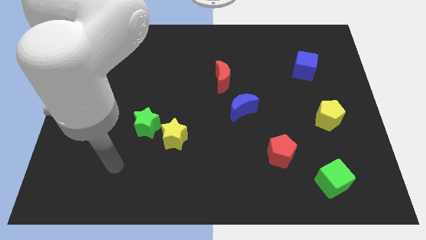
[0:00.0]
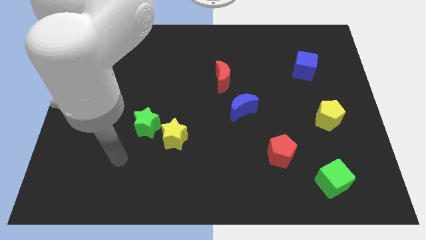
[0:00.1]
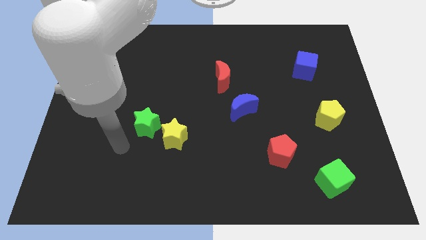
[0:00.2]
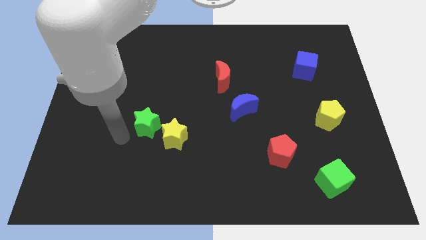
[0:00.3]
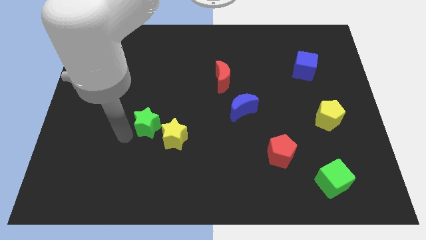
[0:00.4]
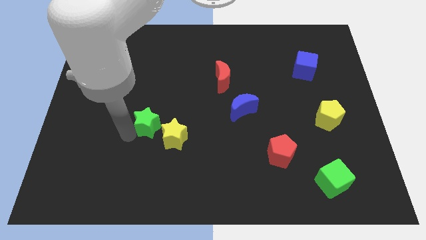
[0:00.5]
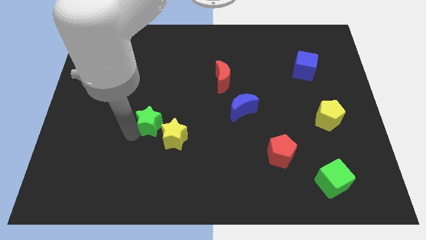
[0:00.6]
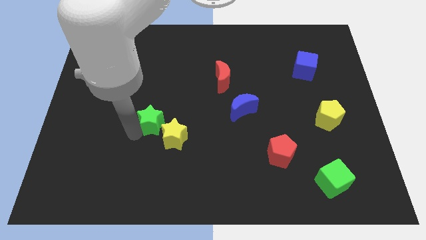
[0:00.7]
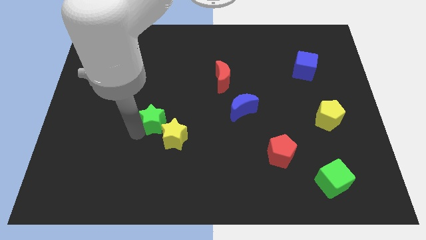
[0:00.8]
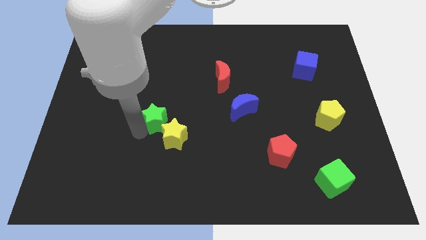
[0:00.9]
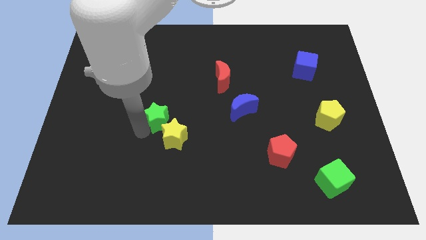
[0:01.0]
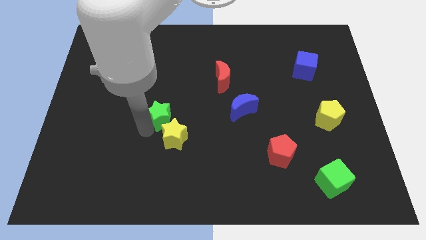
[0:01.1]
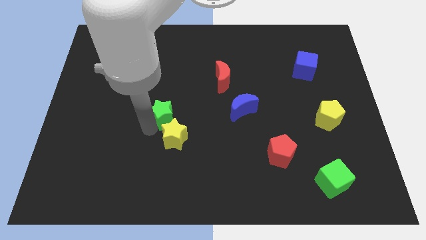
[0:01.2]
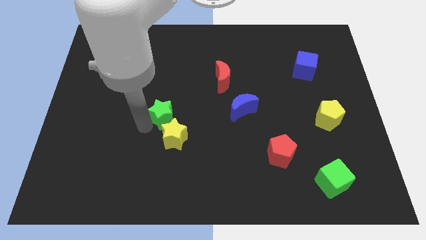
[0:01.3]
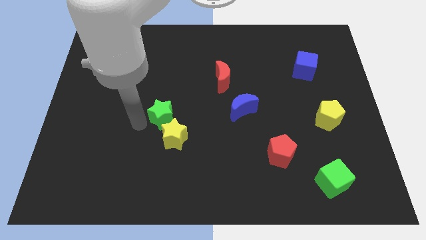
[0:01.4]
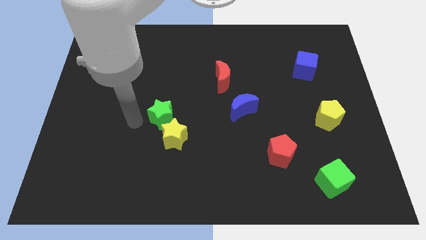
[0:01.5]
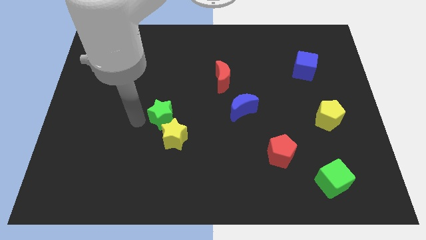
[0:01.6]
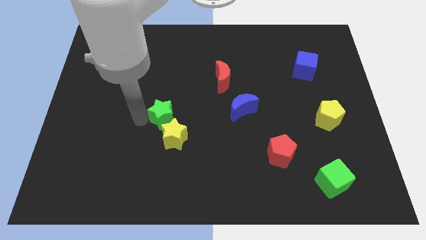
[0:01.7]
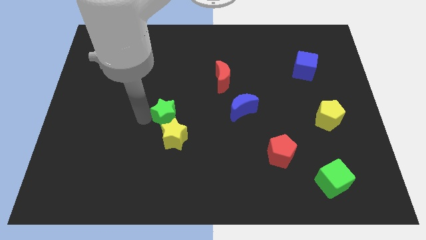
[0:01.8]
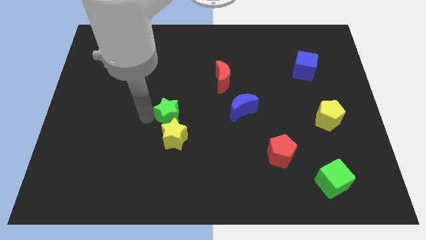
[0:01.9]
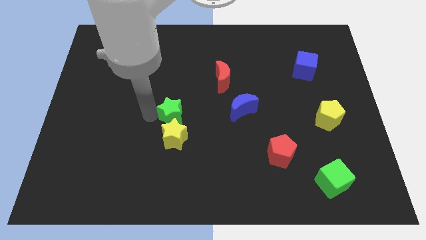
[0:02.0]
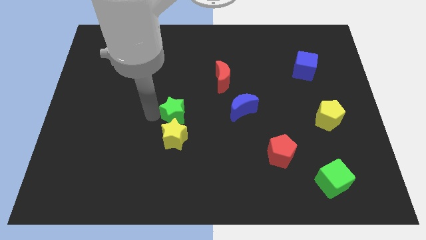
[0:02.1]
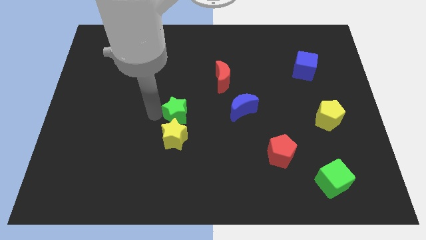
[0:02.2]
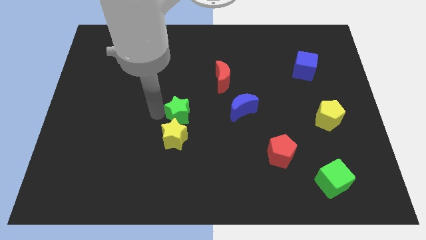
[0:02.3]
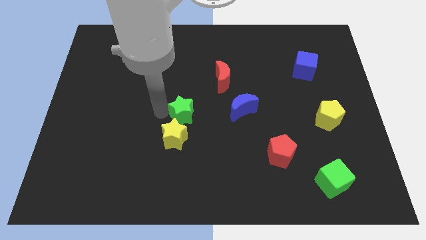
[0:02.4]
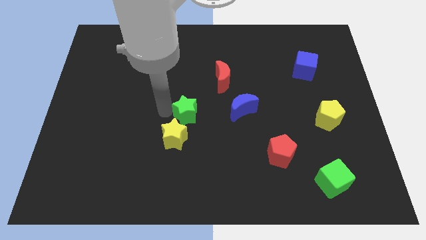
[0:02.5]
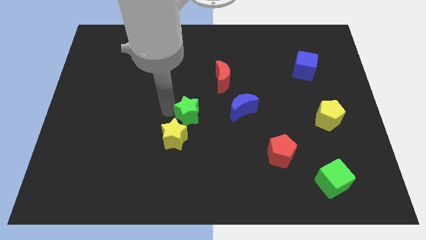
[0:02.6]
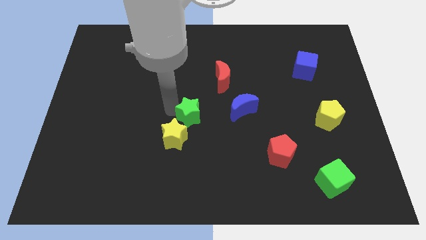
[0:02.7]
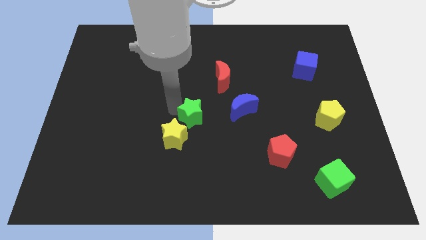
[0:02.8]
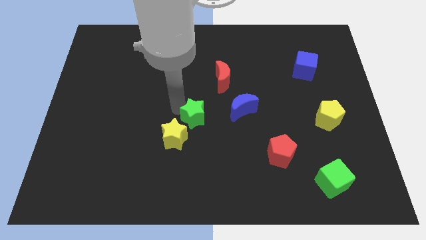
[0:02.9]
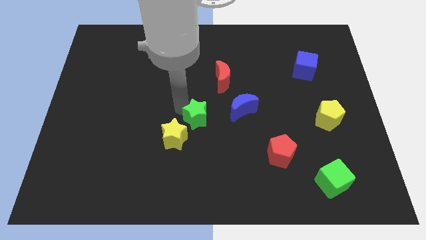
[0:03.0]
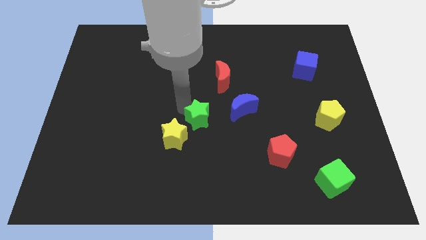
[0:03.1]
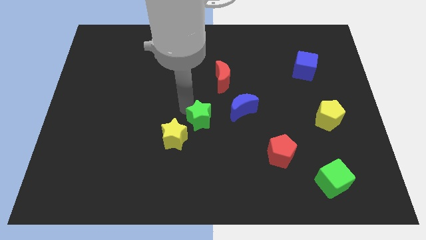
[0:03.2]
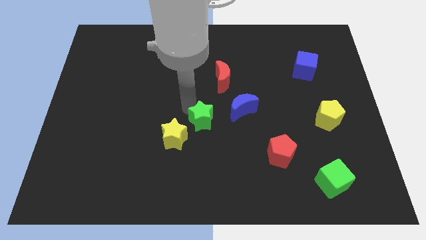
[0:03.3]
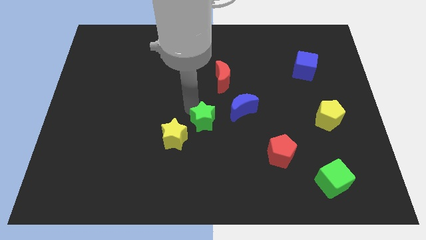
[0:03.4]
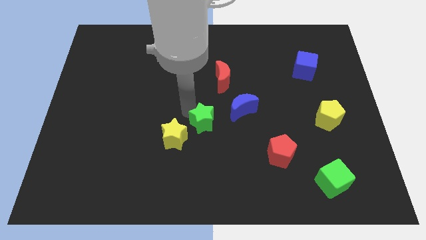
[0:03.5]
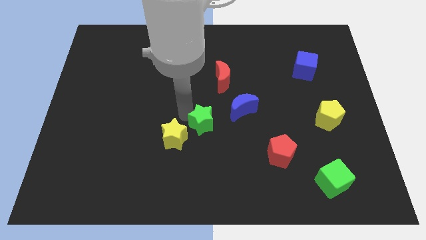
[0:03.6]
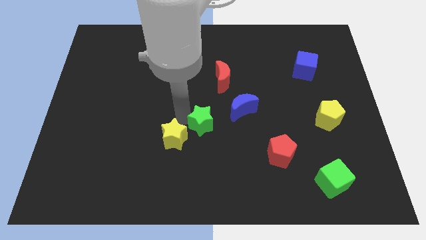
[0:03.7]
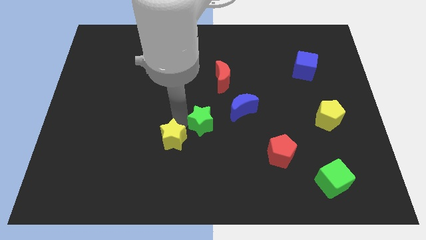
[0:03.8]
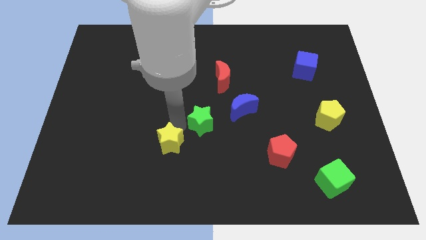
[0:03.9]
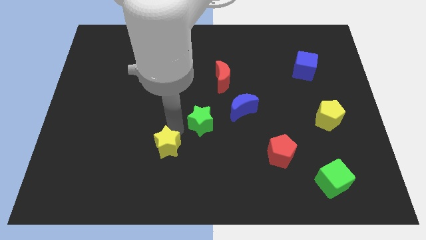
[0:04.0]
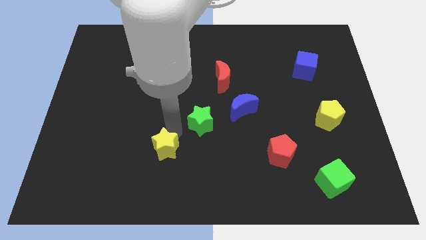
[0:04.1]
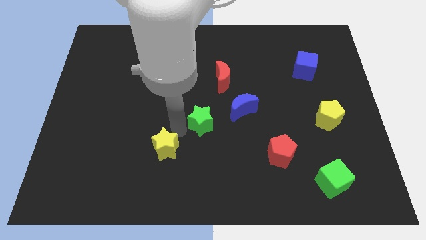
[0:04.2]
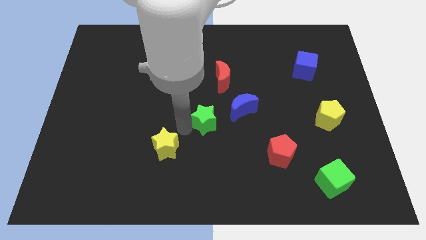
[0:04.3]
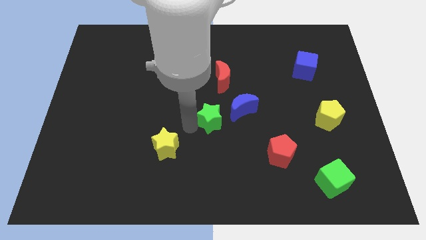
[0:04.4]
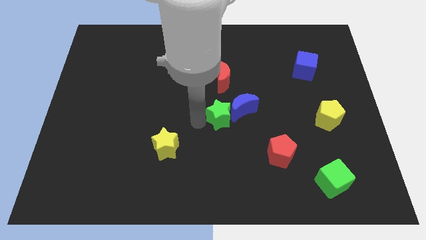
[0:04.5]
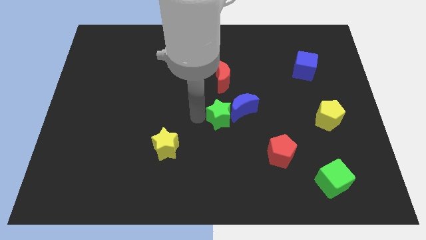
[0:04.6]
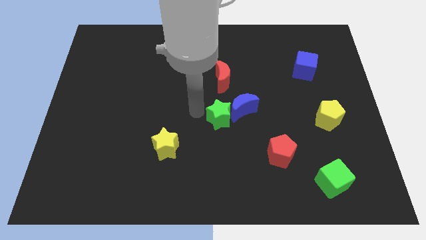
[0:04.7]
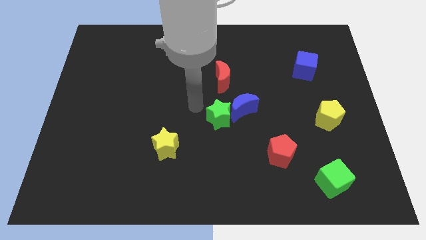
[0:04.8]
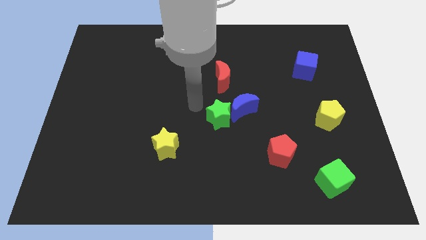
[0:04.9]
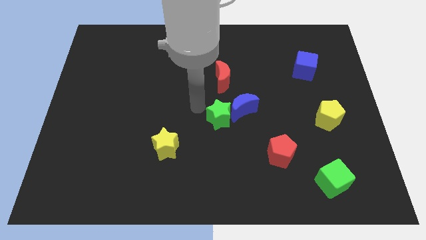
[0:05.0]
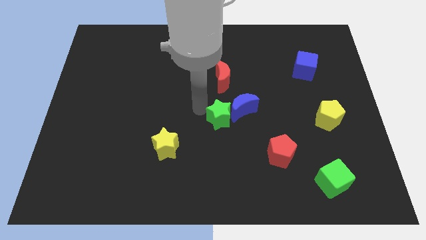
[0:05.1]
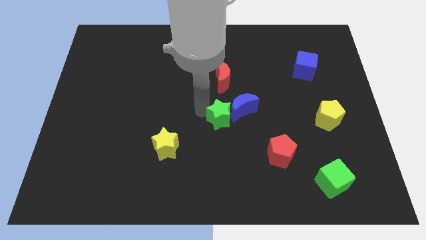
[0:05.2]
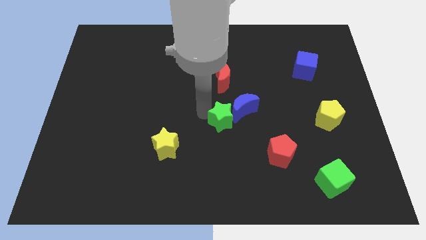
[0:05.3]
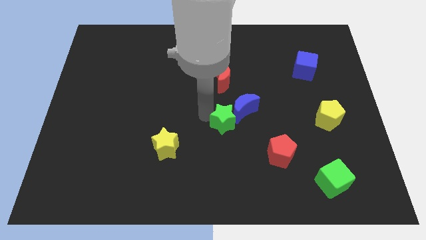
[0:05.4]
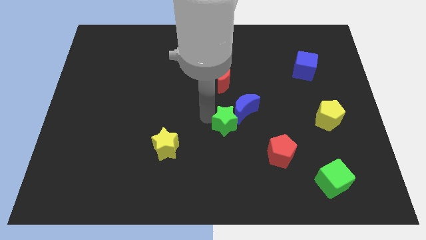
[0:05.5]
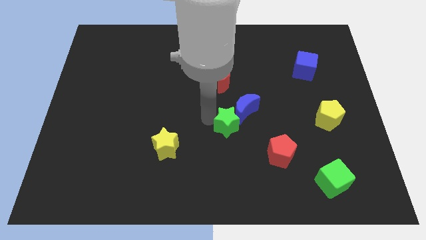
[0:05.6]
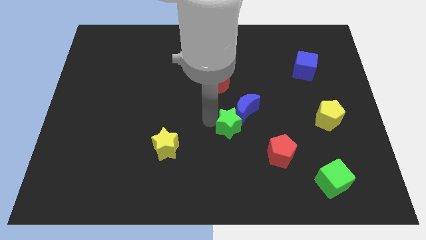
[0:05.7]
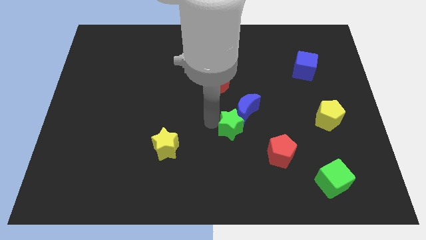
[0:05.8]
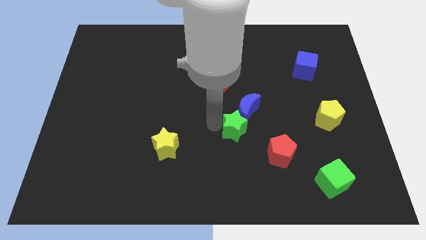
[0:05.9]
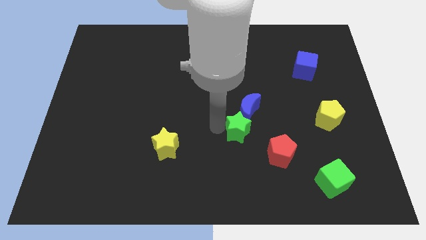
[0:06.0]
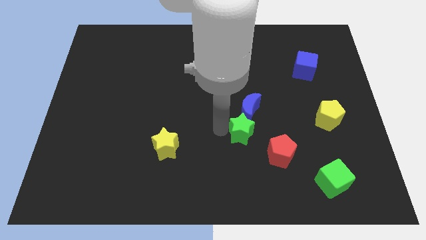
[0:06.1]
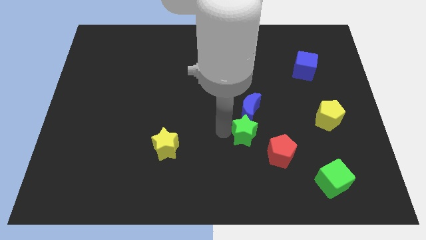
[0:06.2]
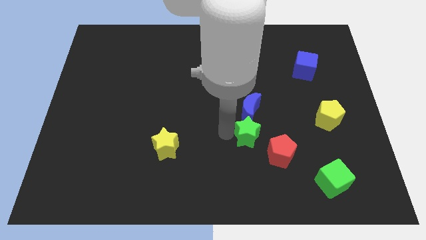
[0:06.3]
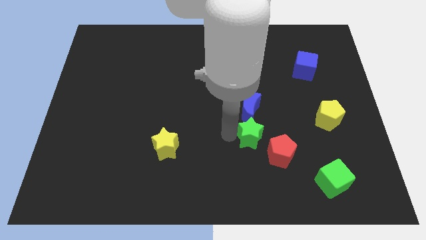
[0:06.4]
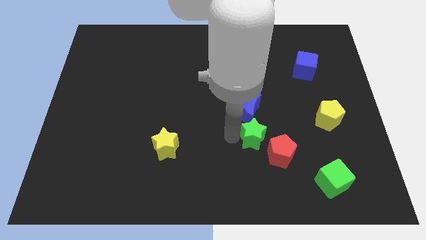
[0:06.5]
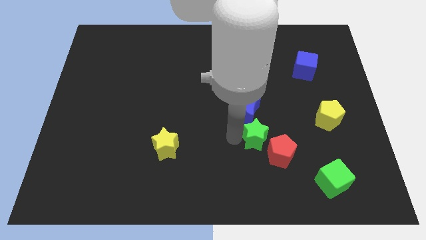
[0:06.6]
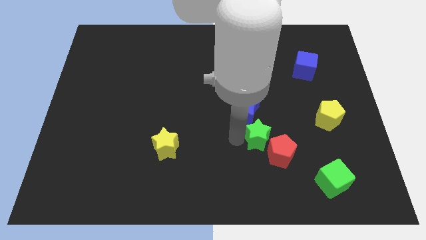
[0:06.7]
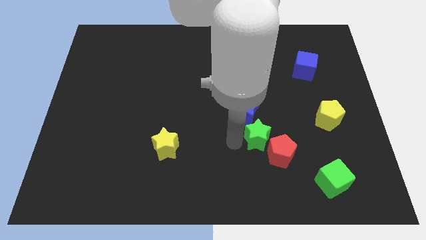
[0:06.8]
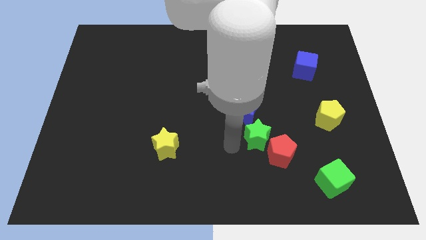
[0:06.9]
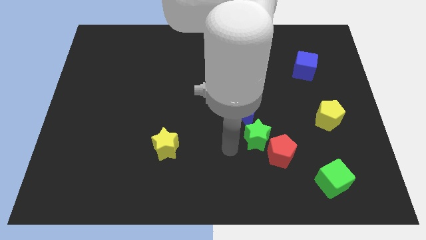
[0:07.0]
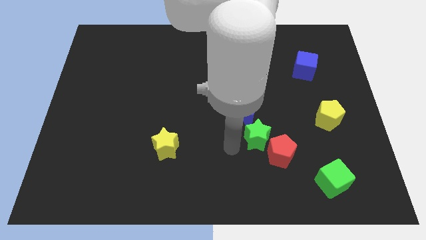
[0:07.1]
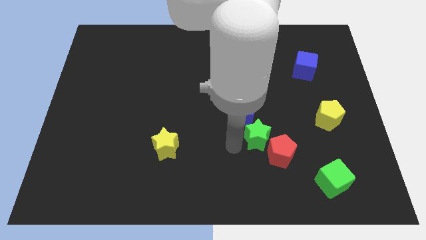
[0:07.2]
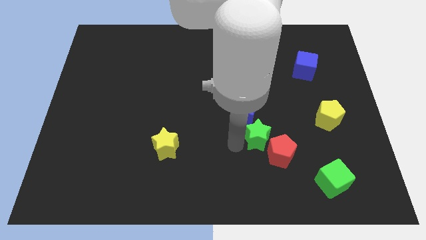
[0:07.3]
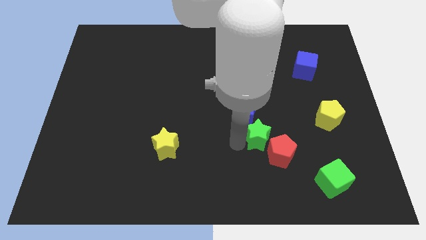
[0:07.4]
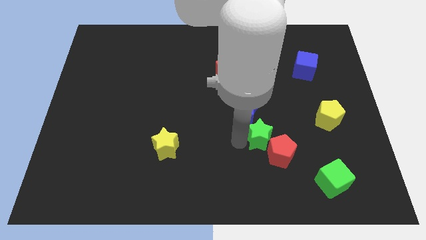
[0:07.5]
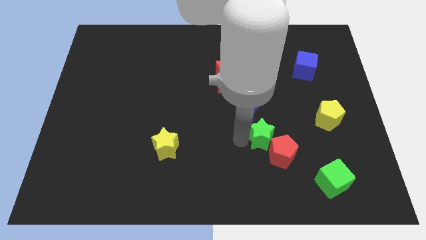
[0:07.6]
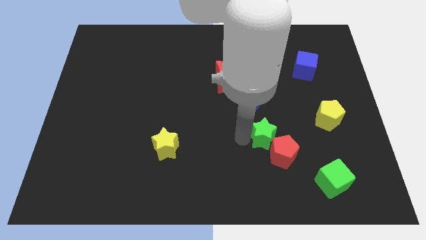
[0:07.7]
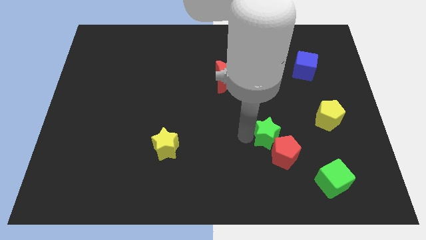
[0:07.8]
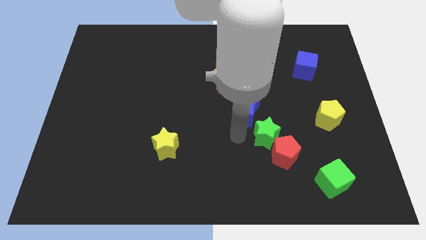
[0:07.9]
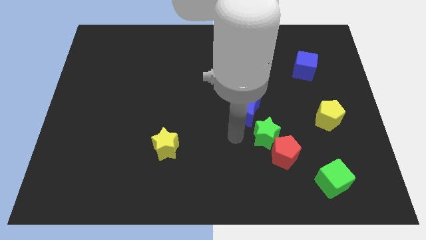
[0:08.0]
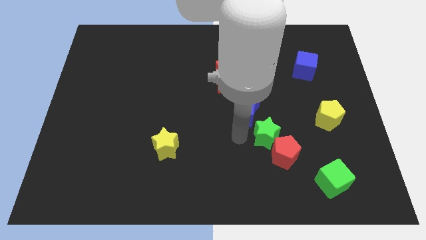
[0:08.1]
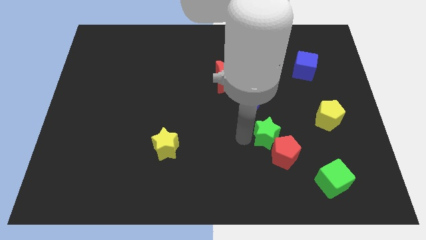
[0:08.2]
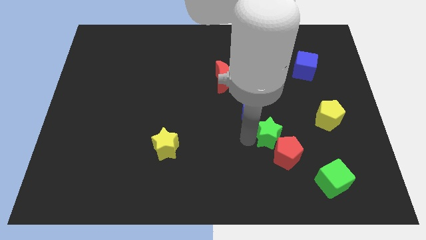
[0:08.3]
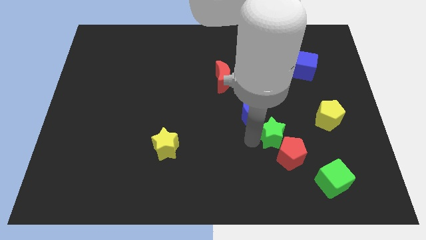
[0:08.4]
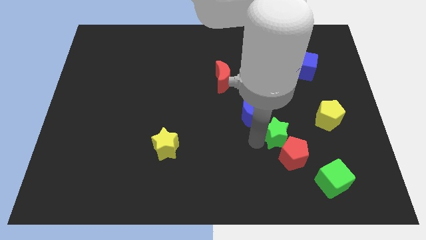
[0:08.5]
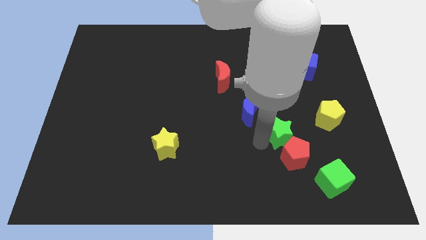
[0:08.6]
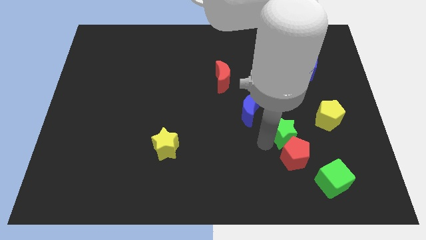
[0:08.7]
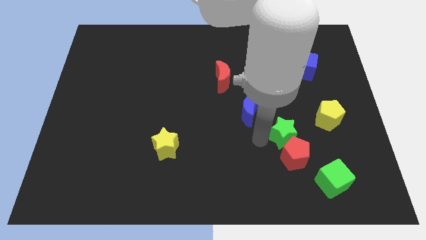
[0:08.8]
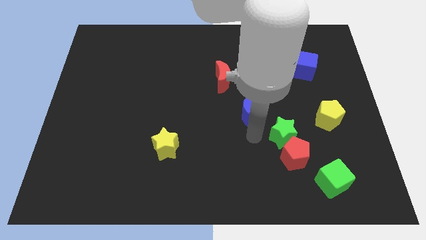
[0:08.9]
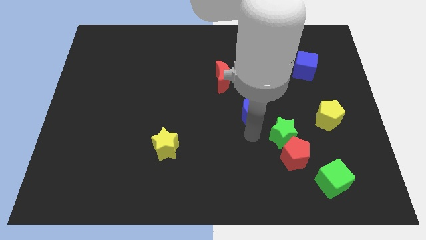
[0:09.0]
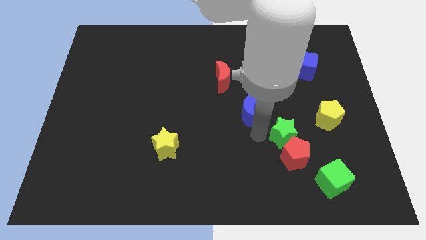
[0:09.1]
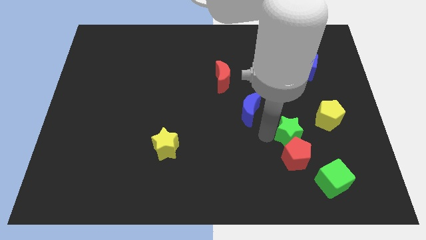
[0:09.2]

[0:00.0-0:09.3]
put the green star to the top right of the red pentagon
